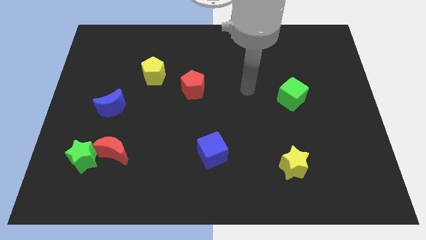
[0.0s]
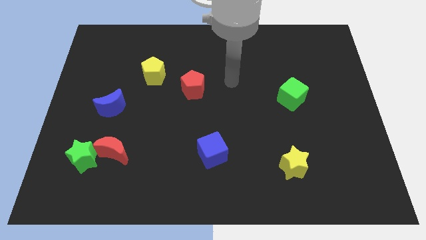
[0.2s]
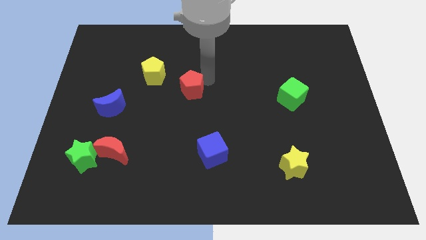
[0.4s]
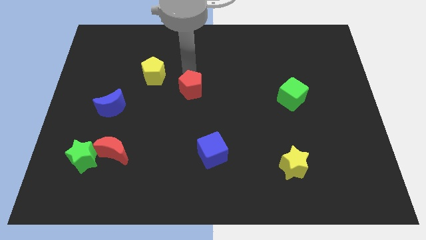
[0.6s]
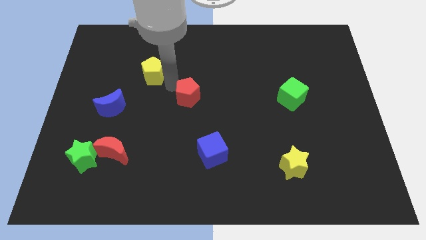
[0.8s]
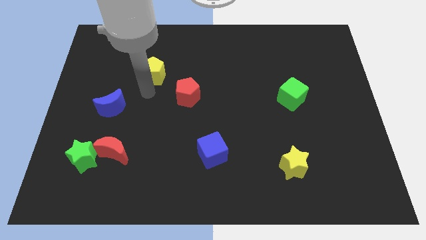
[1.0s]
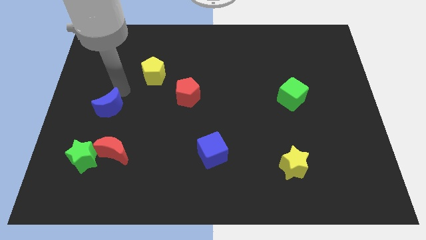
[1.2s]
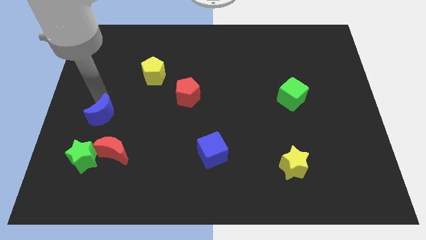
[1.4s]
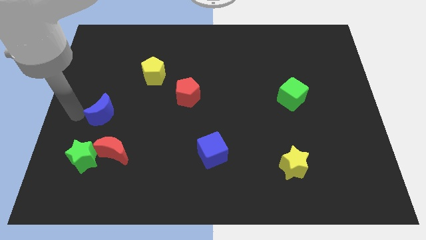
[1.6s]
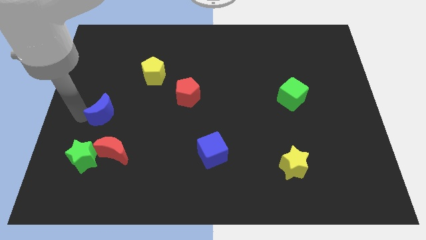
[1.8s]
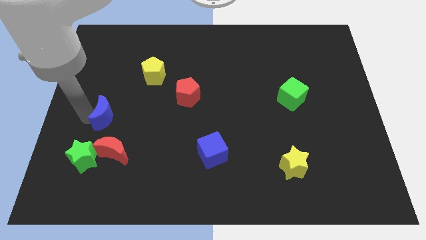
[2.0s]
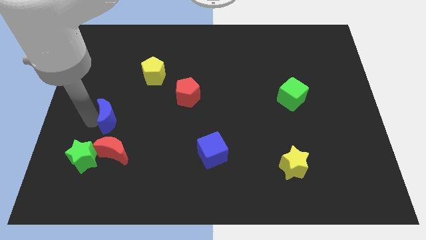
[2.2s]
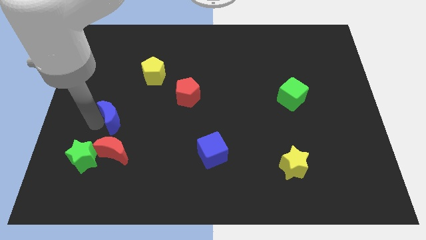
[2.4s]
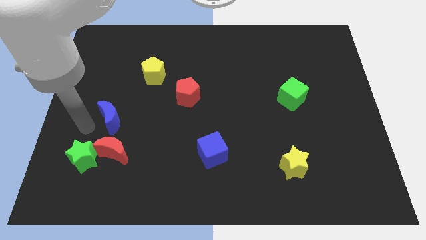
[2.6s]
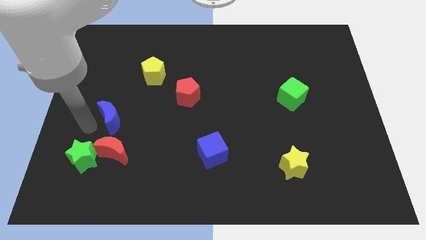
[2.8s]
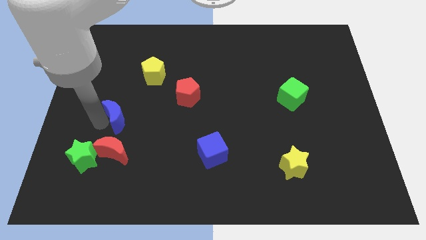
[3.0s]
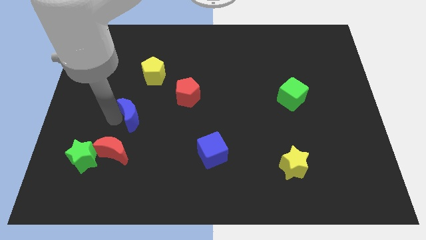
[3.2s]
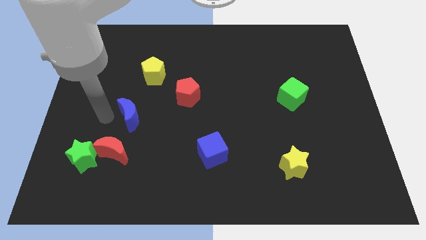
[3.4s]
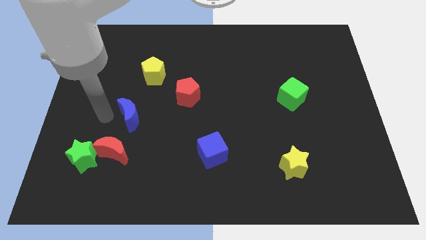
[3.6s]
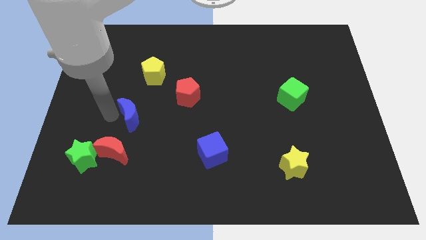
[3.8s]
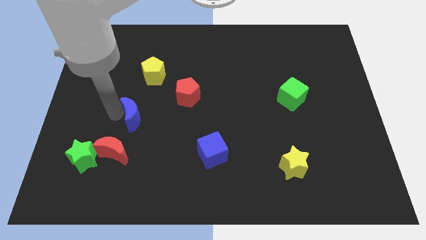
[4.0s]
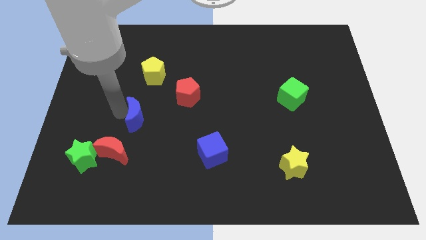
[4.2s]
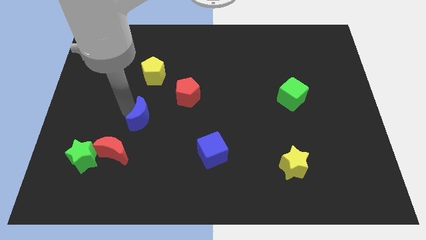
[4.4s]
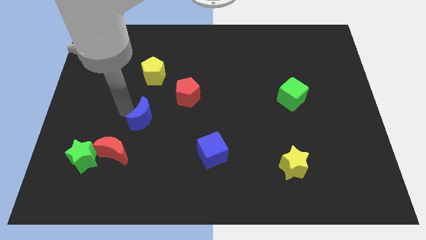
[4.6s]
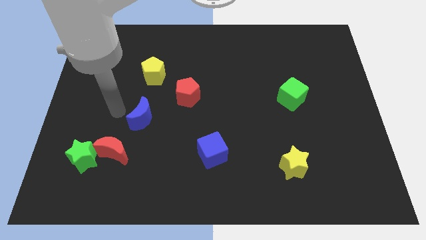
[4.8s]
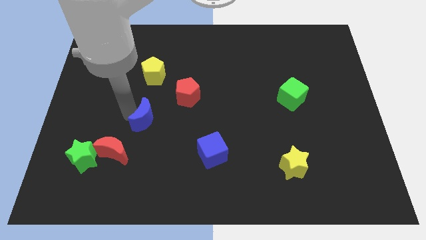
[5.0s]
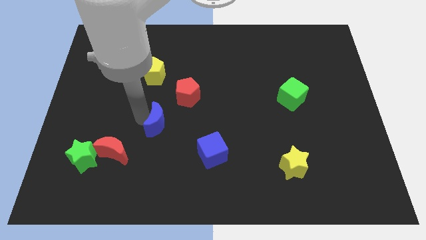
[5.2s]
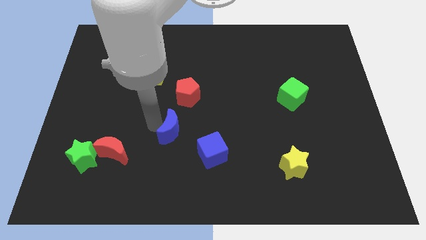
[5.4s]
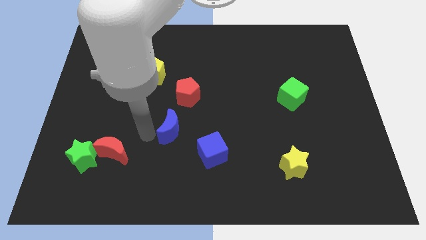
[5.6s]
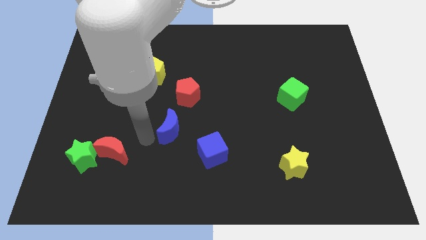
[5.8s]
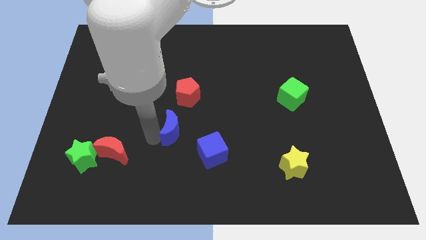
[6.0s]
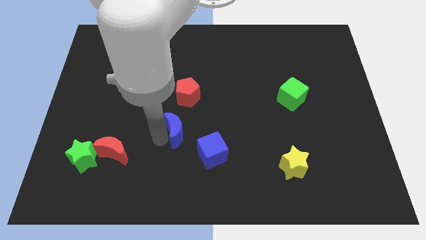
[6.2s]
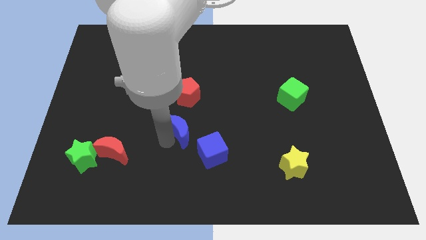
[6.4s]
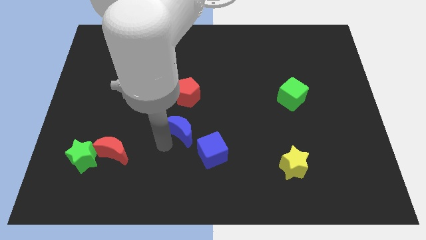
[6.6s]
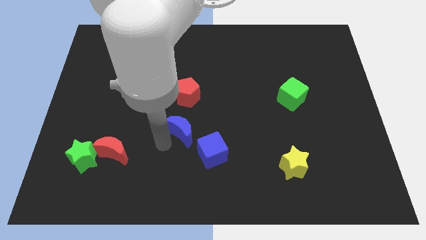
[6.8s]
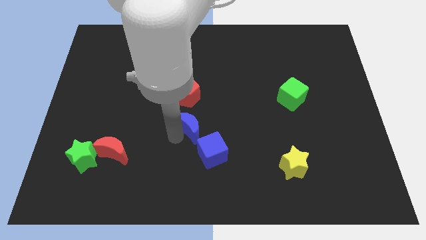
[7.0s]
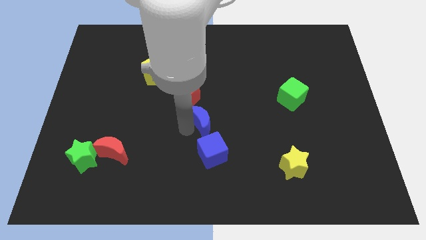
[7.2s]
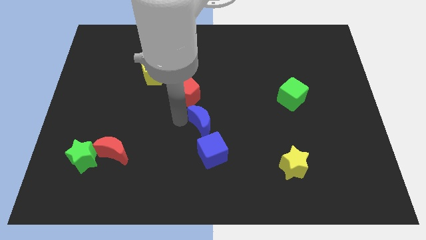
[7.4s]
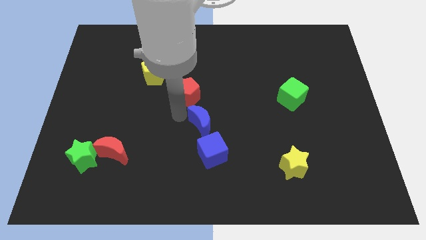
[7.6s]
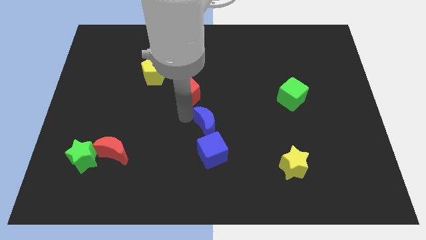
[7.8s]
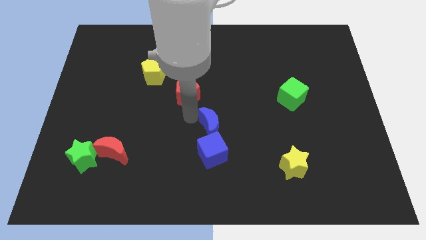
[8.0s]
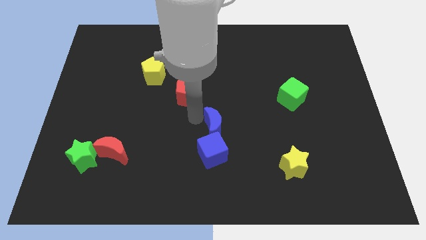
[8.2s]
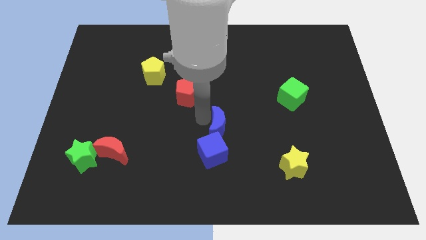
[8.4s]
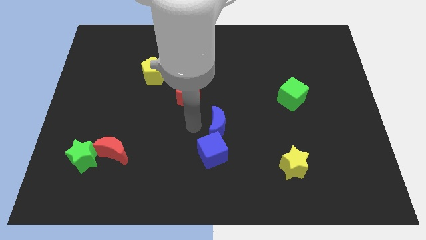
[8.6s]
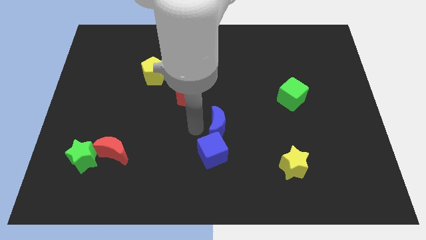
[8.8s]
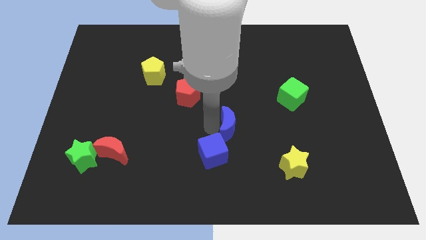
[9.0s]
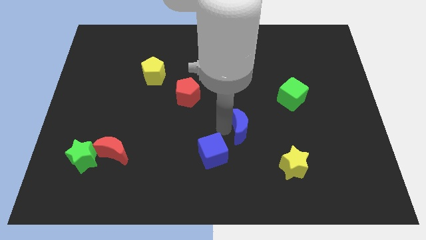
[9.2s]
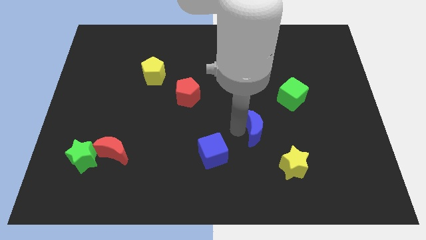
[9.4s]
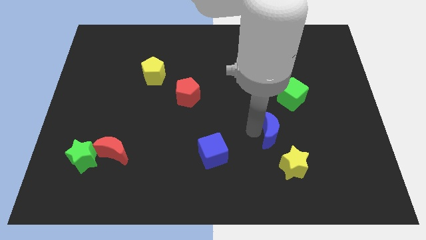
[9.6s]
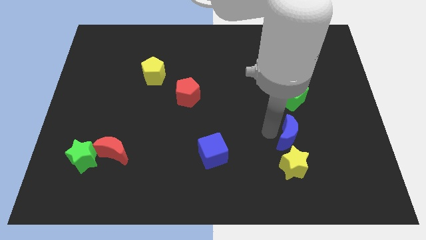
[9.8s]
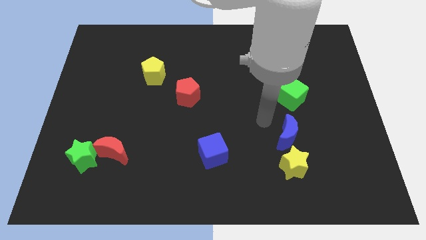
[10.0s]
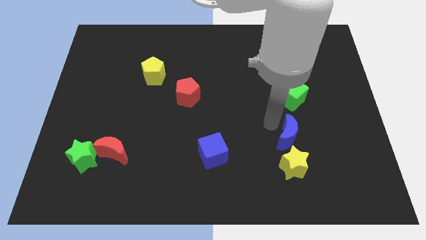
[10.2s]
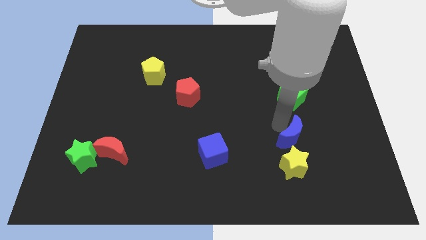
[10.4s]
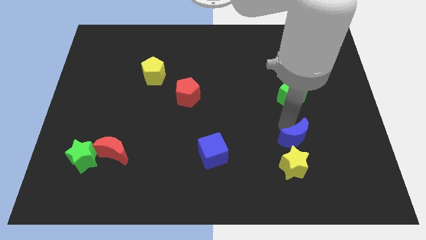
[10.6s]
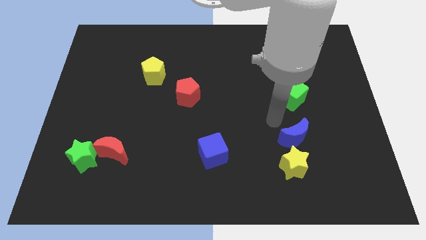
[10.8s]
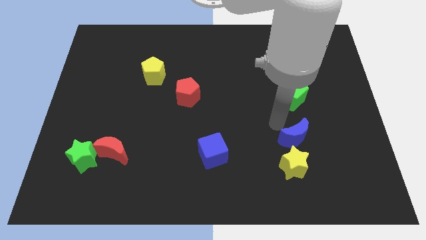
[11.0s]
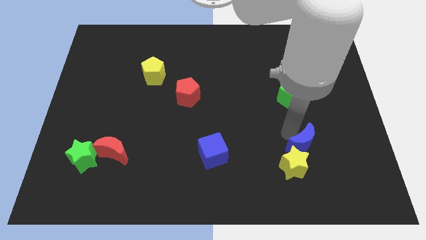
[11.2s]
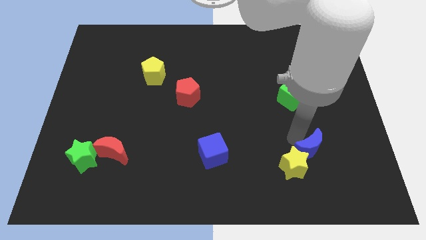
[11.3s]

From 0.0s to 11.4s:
put the blue moon to the right side of the yellow star

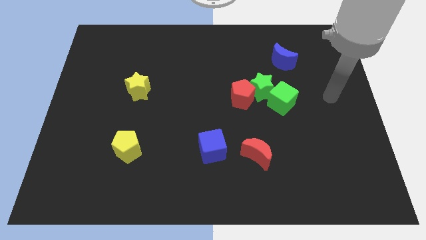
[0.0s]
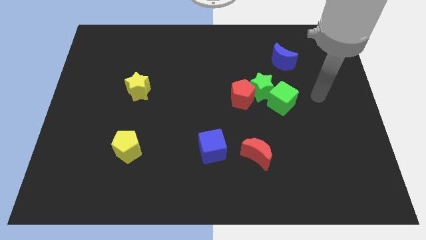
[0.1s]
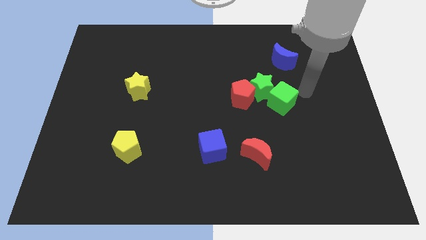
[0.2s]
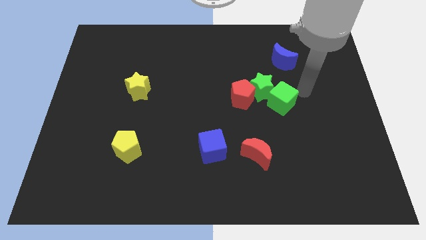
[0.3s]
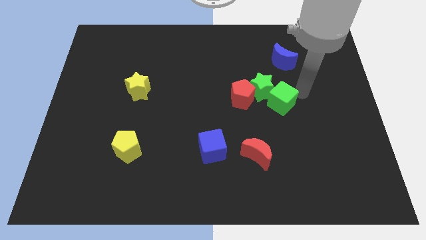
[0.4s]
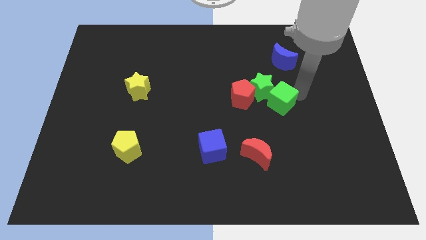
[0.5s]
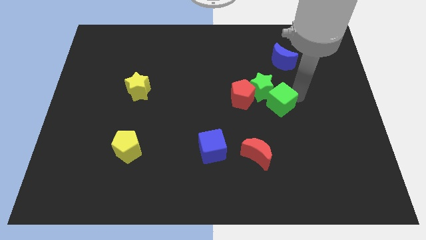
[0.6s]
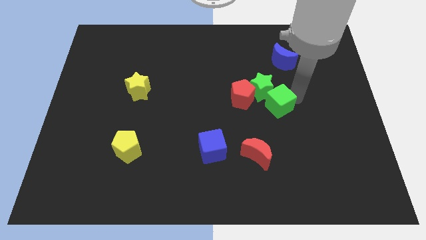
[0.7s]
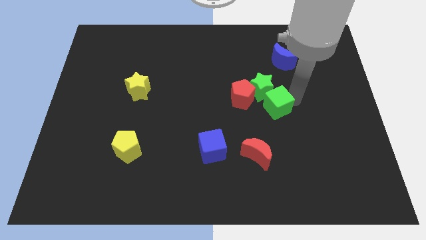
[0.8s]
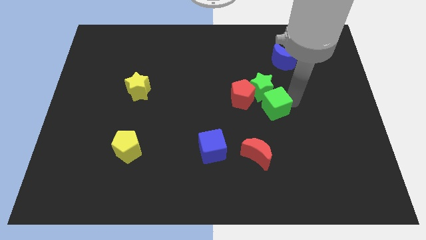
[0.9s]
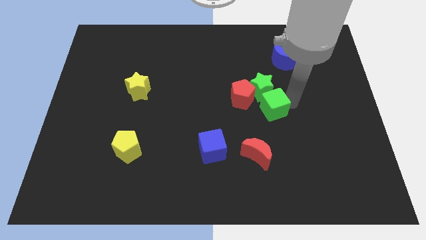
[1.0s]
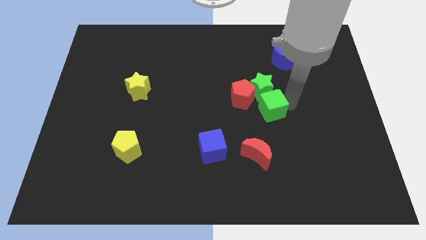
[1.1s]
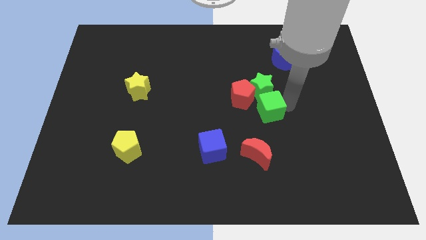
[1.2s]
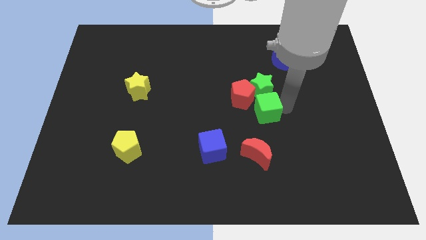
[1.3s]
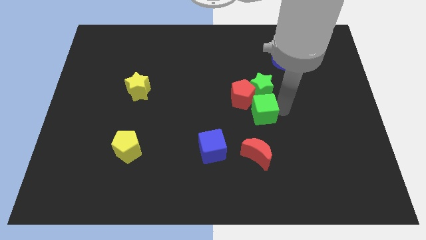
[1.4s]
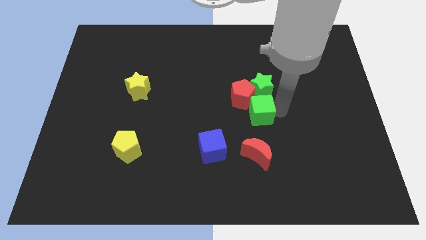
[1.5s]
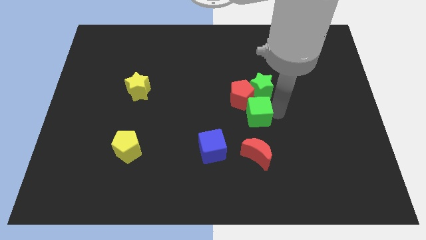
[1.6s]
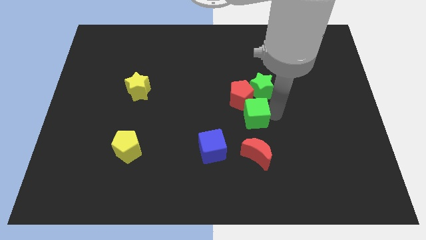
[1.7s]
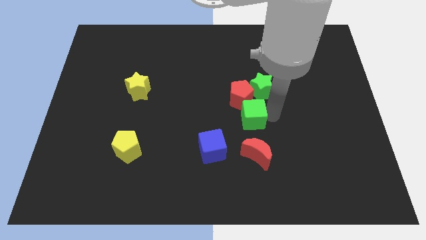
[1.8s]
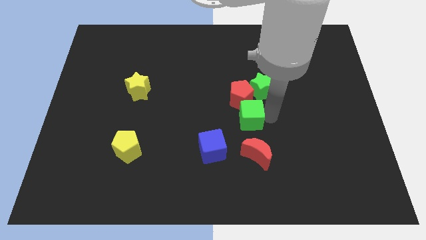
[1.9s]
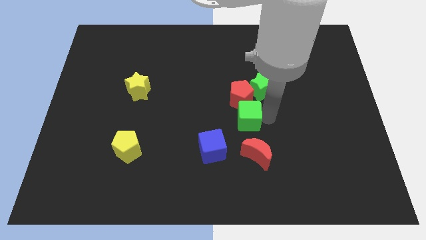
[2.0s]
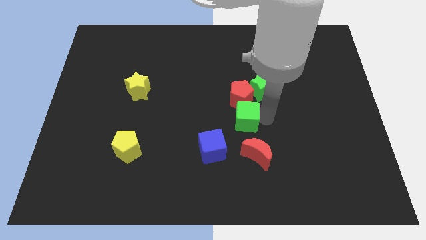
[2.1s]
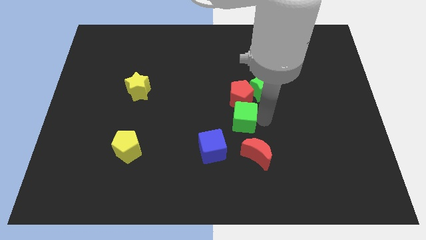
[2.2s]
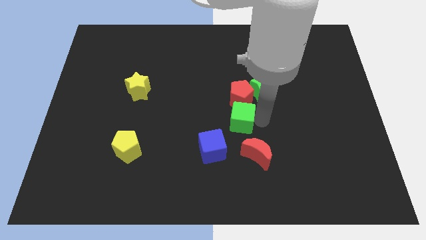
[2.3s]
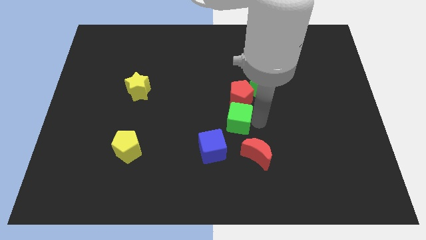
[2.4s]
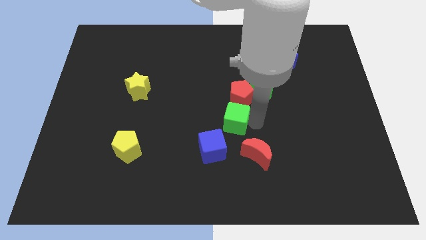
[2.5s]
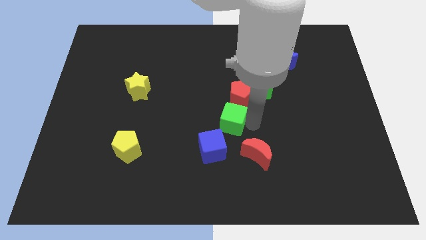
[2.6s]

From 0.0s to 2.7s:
put the green cube to the top of the blue cube
